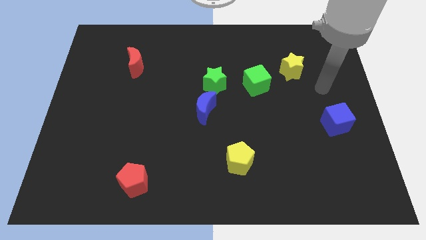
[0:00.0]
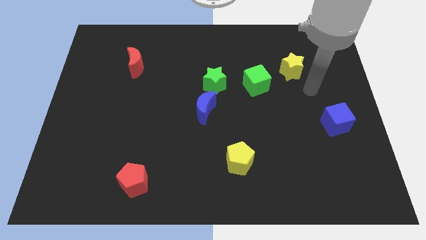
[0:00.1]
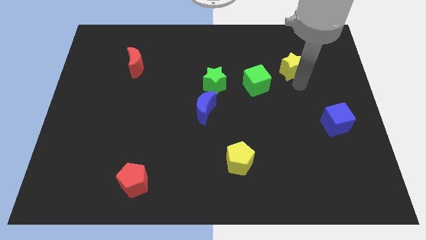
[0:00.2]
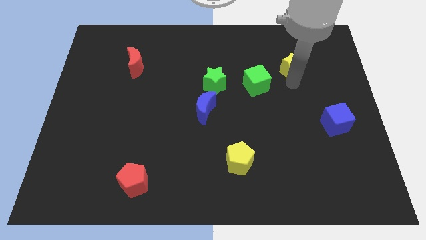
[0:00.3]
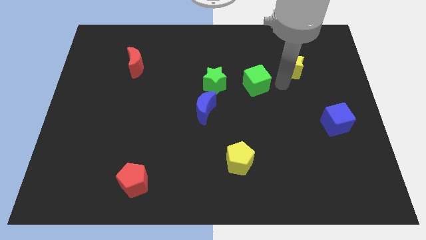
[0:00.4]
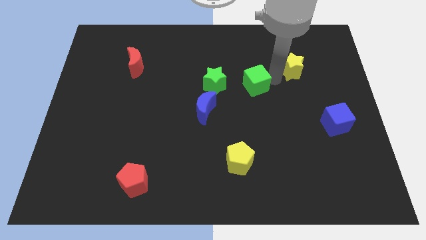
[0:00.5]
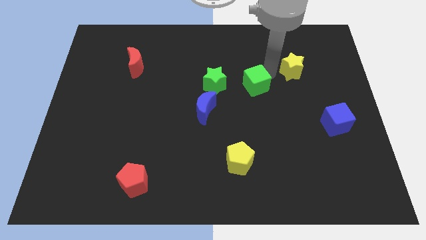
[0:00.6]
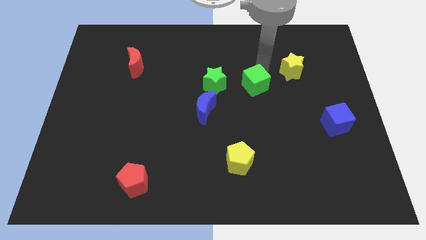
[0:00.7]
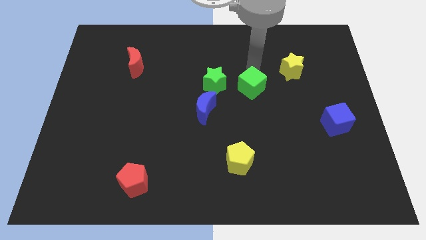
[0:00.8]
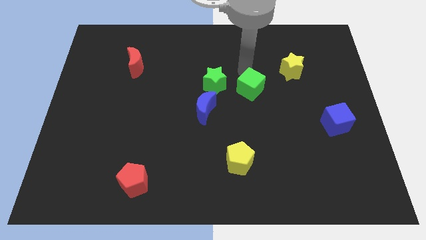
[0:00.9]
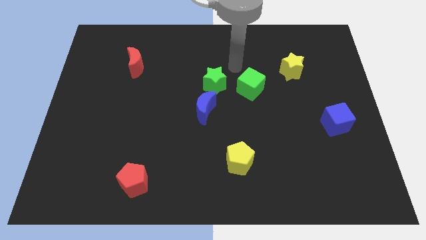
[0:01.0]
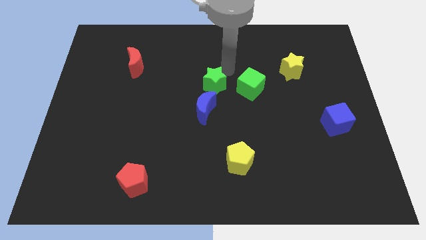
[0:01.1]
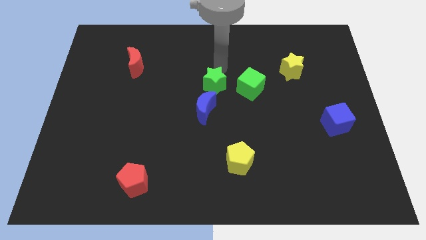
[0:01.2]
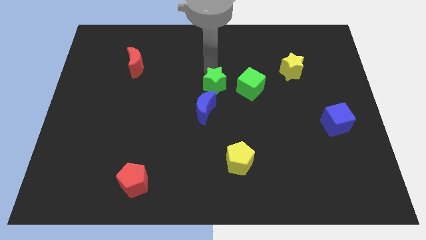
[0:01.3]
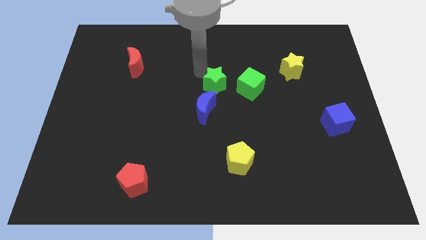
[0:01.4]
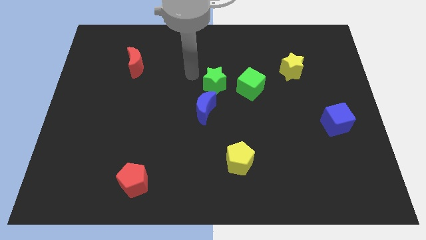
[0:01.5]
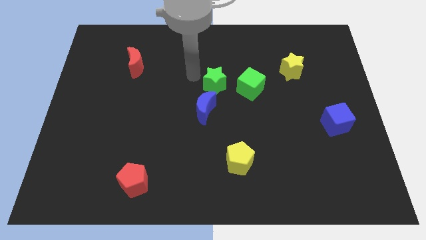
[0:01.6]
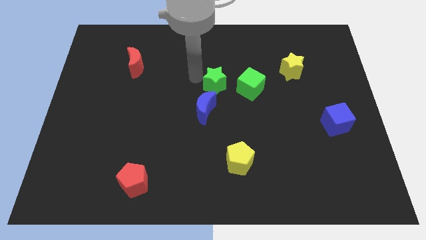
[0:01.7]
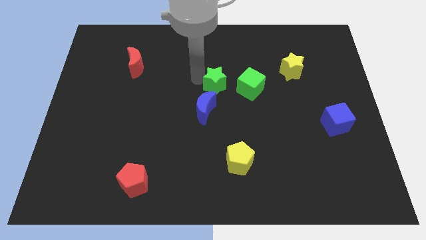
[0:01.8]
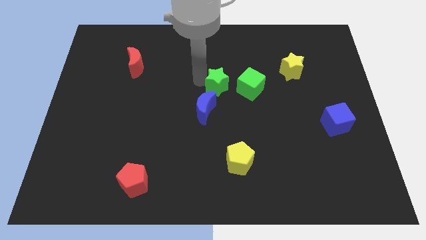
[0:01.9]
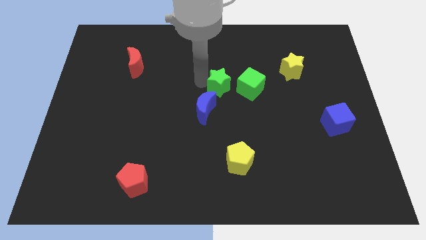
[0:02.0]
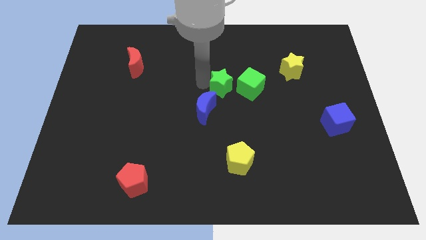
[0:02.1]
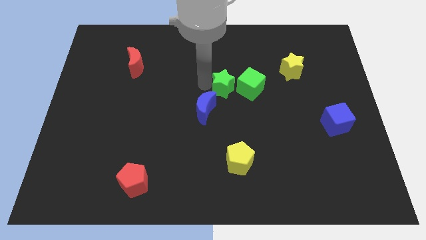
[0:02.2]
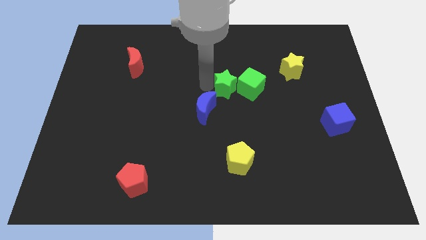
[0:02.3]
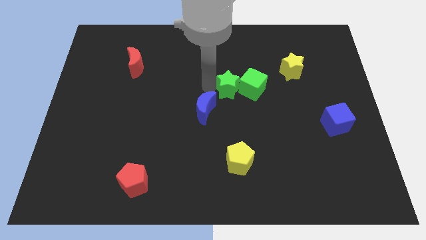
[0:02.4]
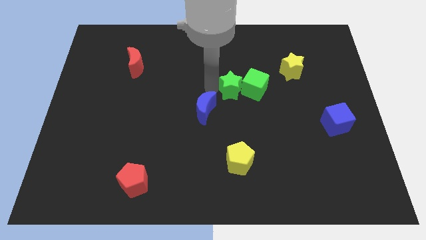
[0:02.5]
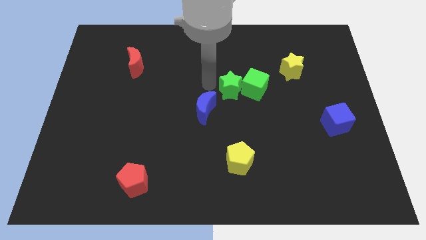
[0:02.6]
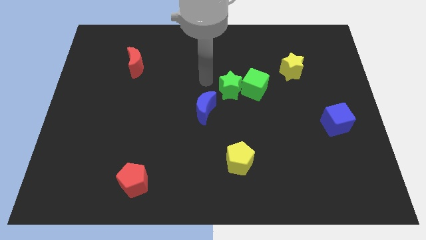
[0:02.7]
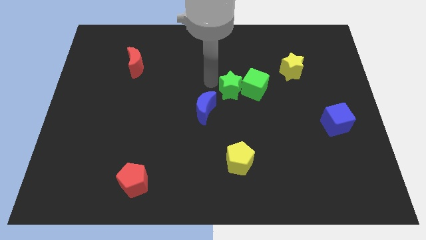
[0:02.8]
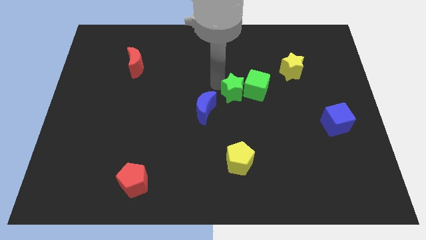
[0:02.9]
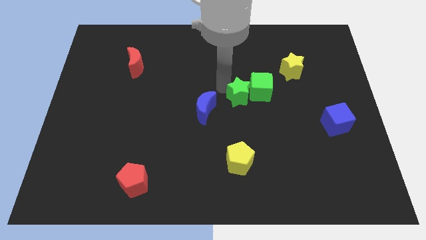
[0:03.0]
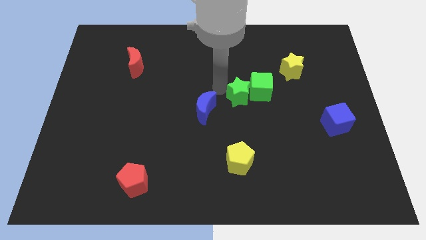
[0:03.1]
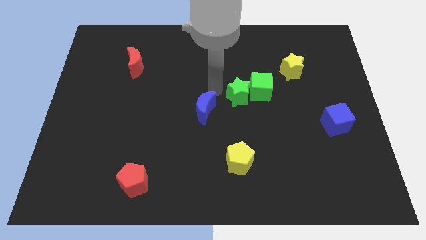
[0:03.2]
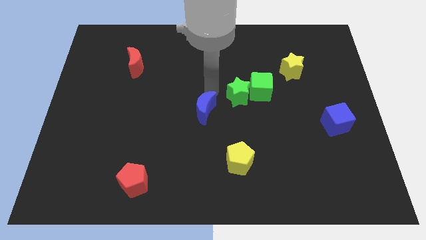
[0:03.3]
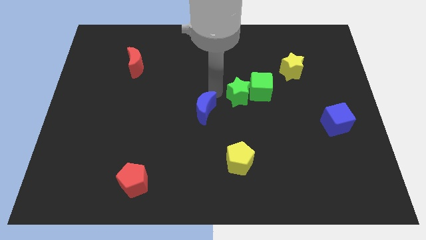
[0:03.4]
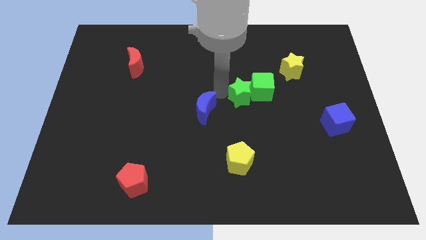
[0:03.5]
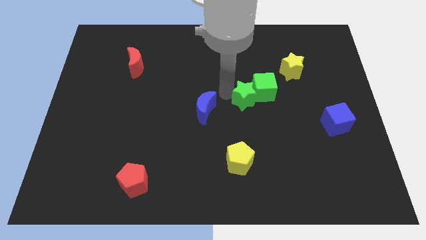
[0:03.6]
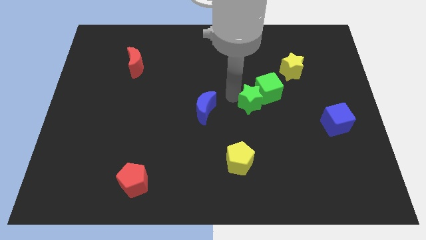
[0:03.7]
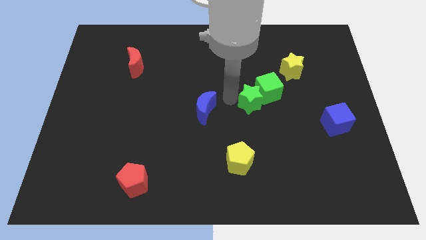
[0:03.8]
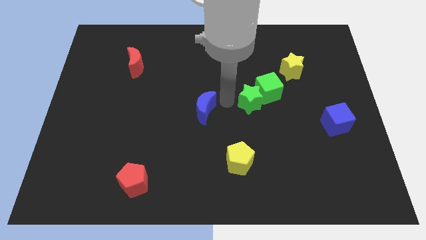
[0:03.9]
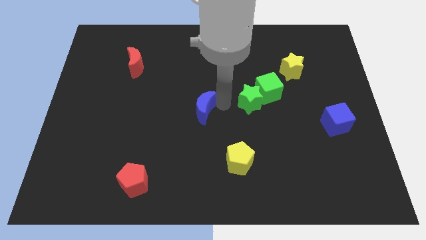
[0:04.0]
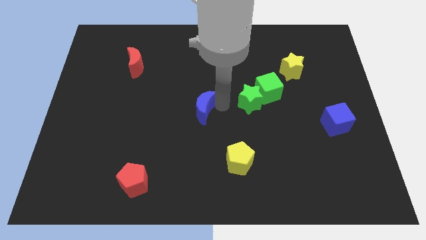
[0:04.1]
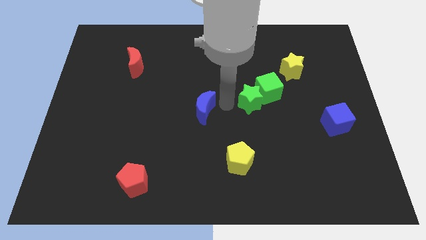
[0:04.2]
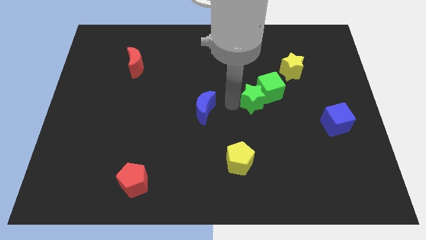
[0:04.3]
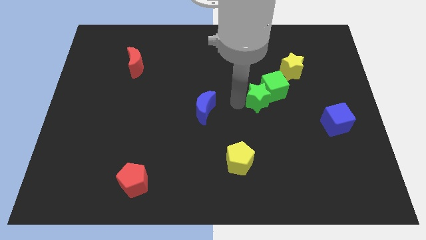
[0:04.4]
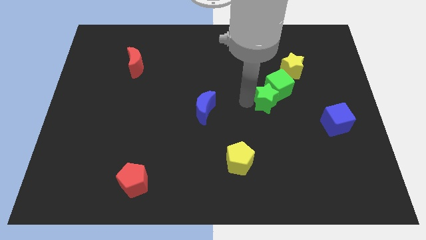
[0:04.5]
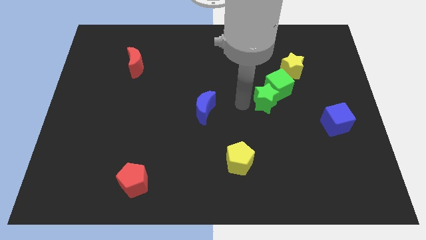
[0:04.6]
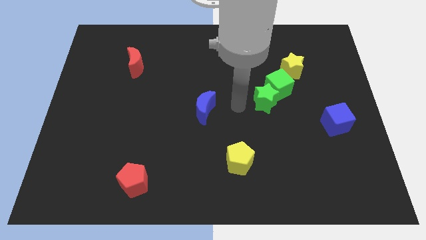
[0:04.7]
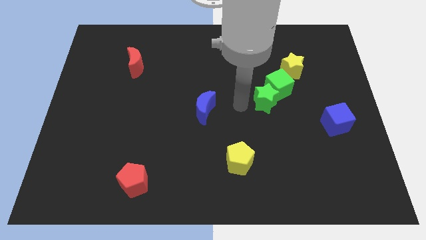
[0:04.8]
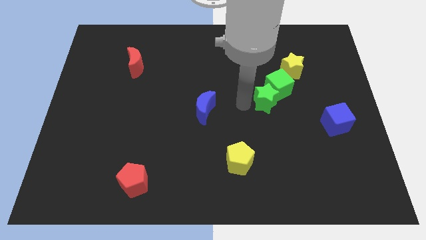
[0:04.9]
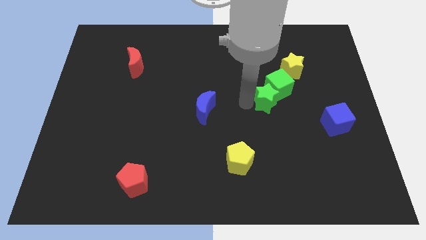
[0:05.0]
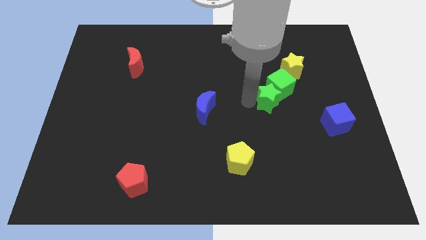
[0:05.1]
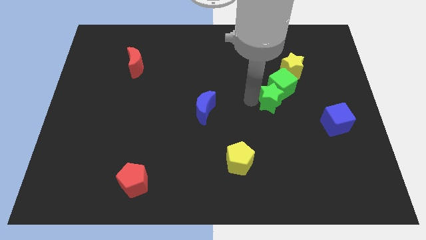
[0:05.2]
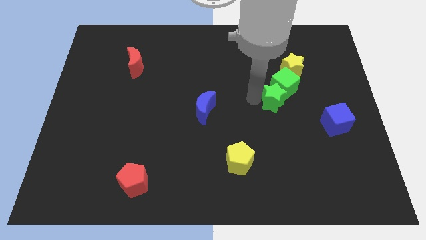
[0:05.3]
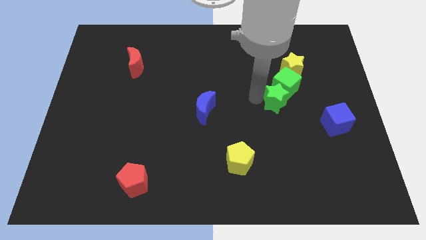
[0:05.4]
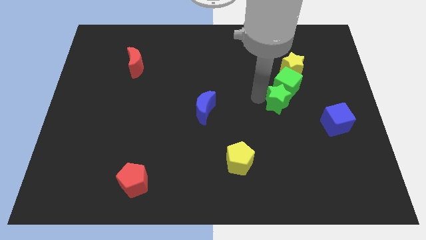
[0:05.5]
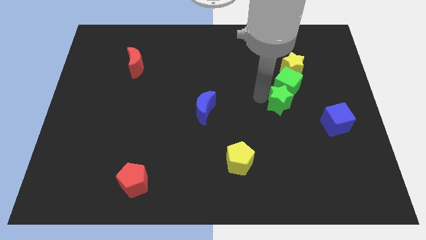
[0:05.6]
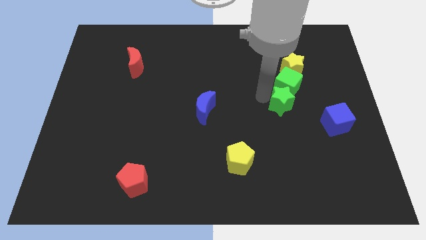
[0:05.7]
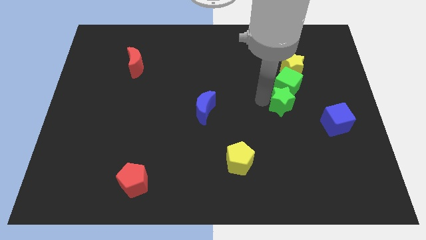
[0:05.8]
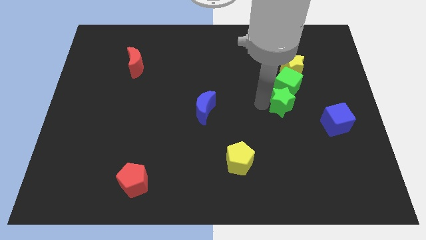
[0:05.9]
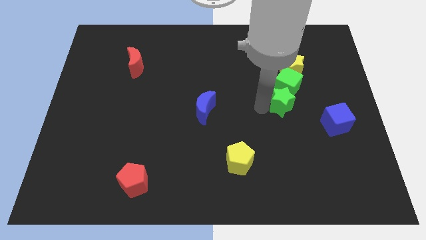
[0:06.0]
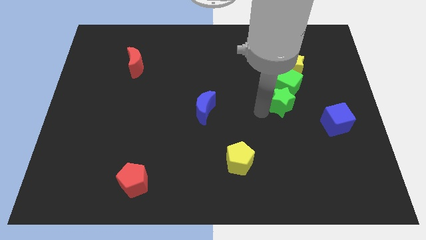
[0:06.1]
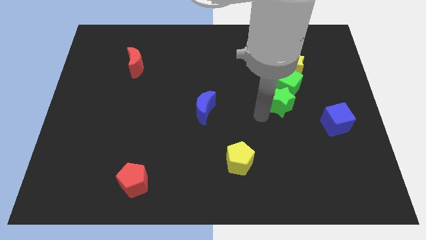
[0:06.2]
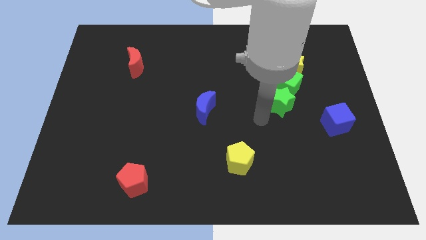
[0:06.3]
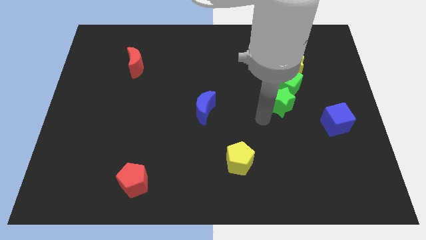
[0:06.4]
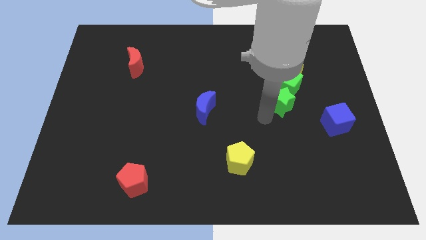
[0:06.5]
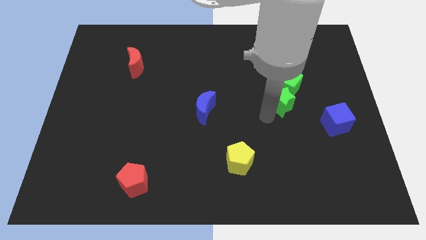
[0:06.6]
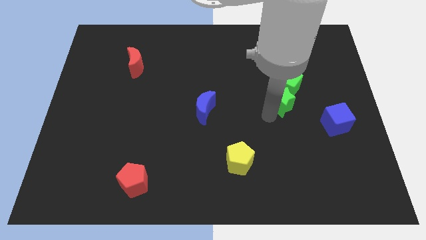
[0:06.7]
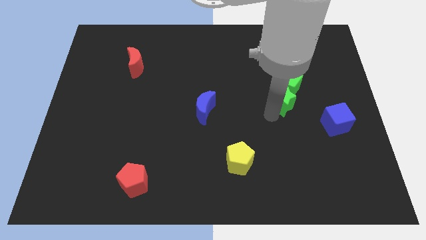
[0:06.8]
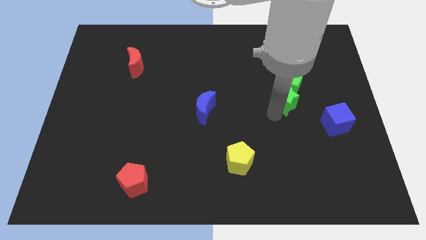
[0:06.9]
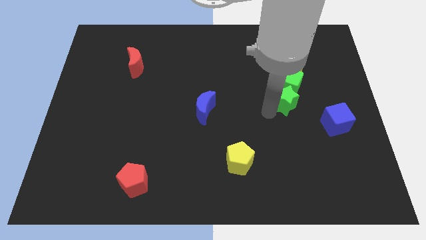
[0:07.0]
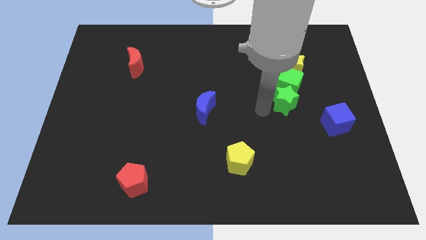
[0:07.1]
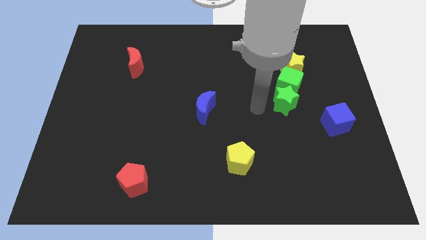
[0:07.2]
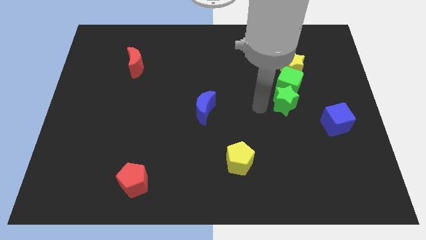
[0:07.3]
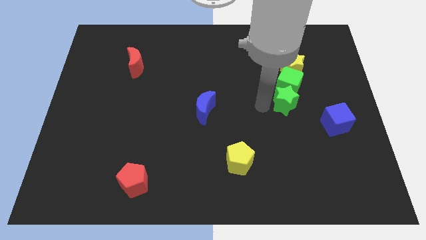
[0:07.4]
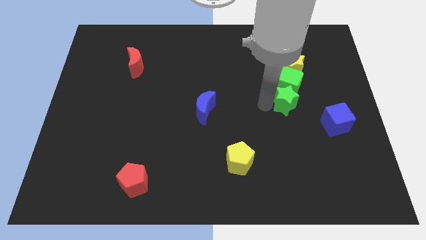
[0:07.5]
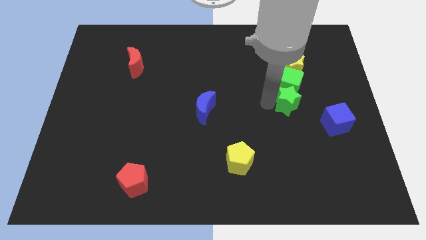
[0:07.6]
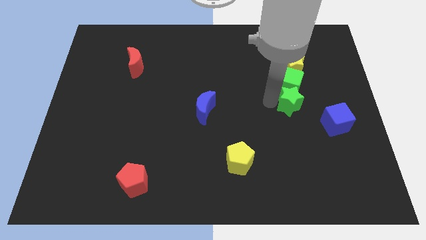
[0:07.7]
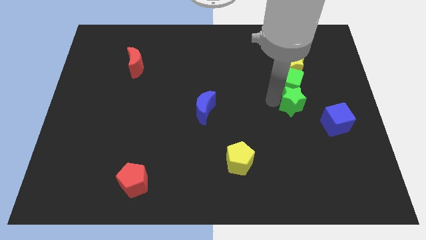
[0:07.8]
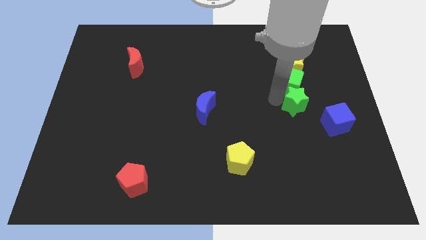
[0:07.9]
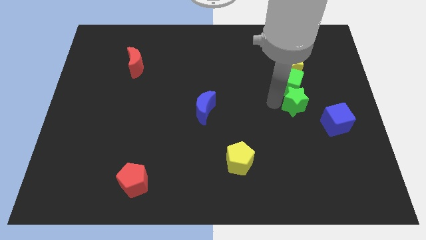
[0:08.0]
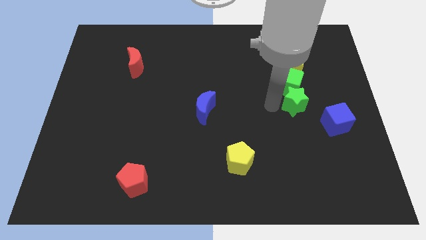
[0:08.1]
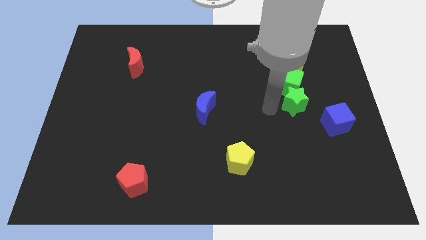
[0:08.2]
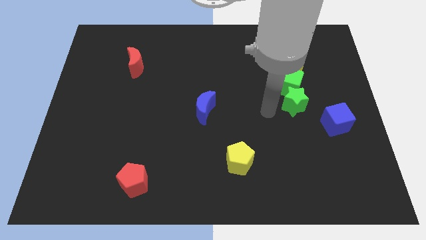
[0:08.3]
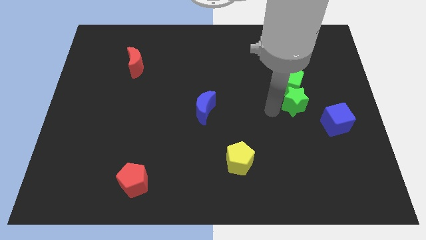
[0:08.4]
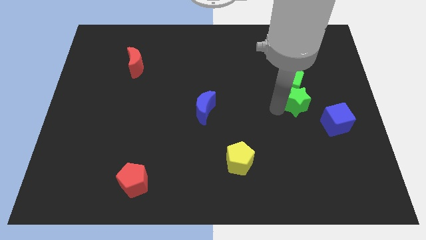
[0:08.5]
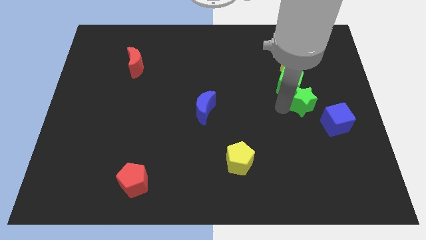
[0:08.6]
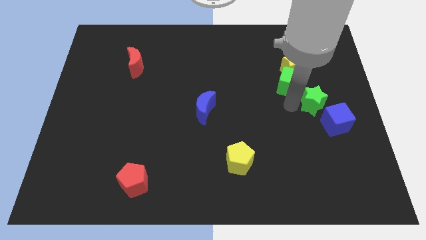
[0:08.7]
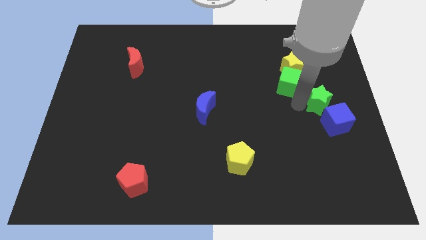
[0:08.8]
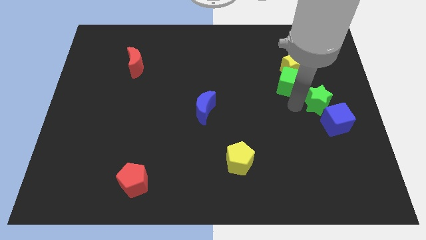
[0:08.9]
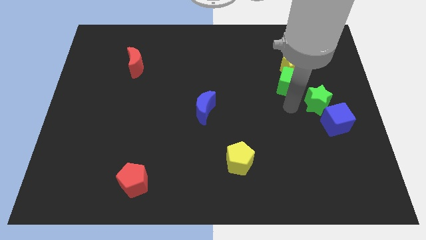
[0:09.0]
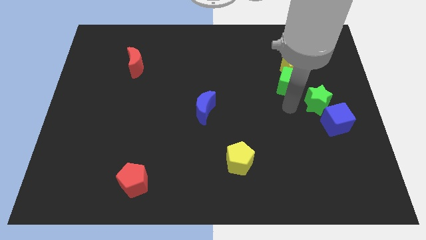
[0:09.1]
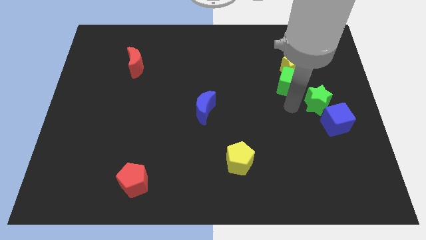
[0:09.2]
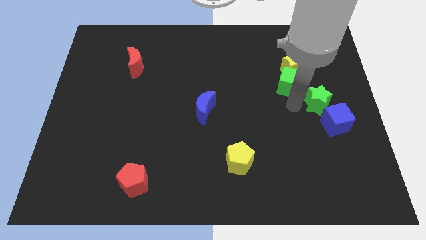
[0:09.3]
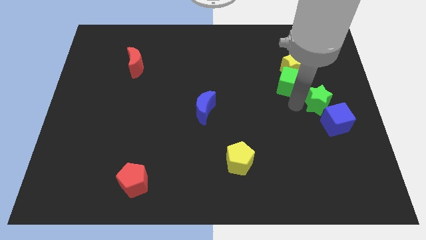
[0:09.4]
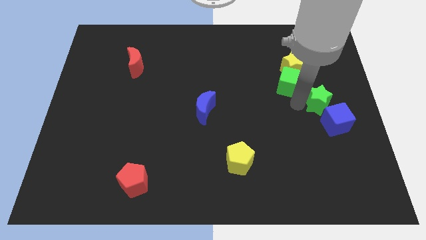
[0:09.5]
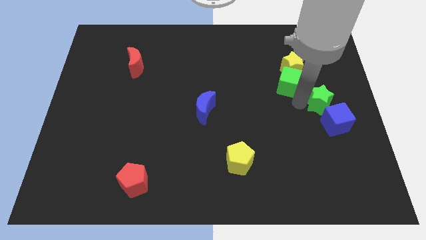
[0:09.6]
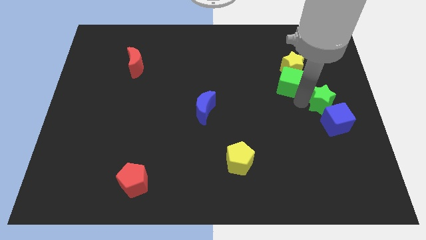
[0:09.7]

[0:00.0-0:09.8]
move the green star to the right side of the board
